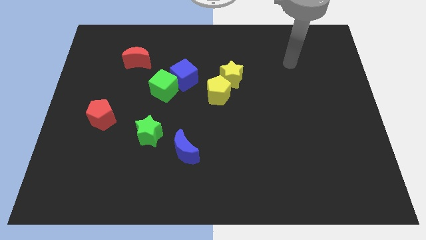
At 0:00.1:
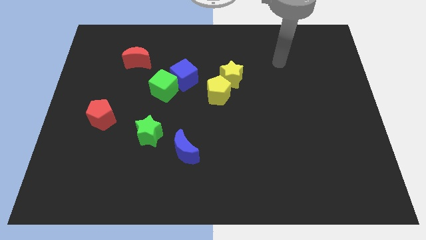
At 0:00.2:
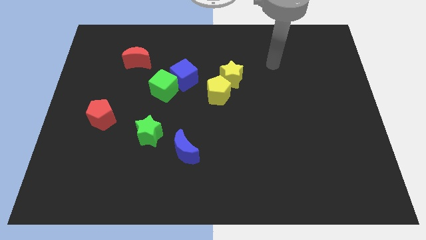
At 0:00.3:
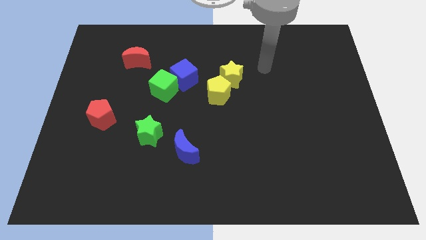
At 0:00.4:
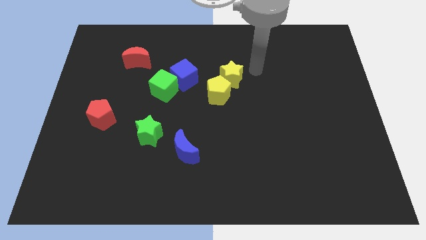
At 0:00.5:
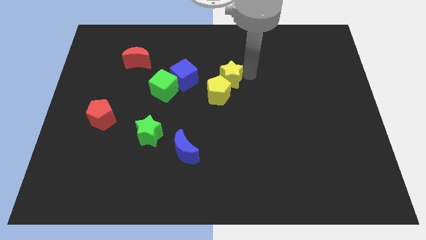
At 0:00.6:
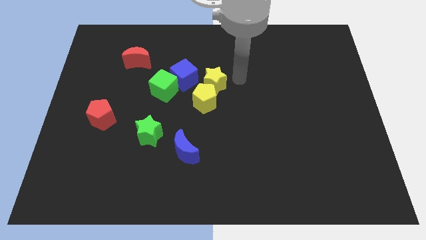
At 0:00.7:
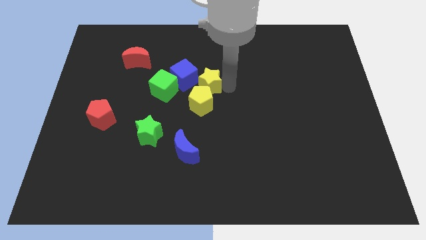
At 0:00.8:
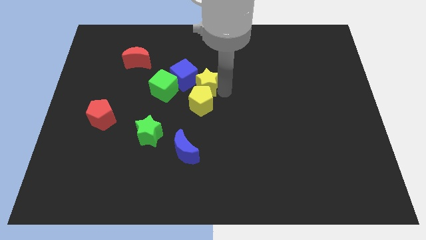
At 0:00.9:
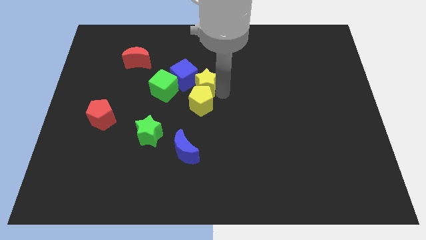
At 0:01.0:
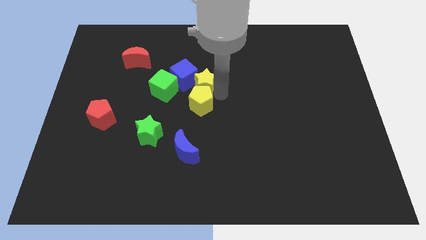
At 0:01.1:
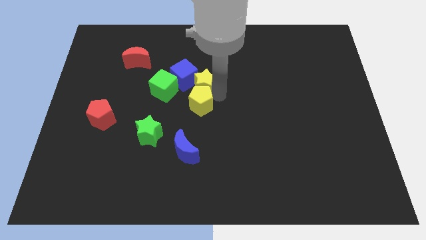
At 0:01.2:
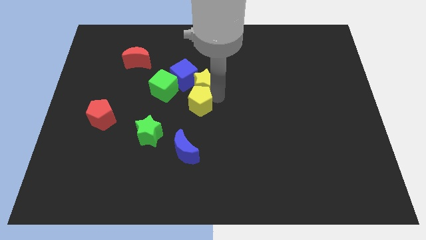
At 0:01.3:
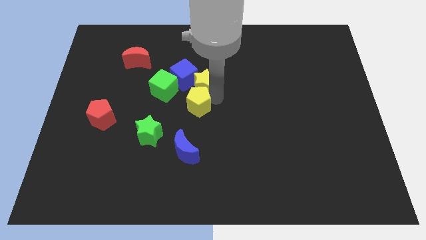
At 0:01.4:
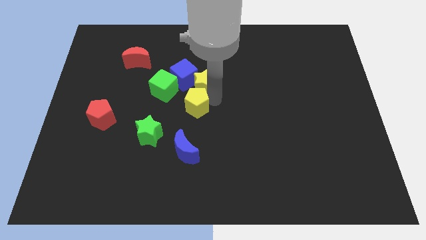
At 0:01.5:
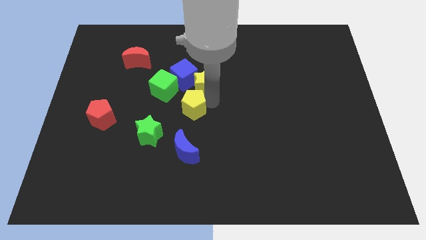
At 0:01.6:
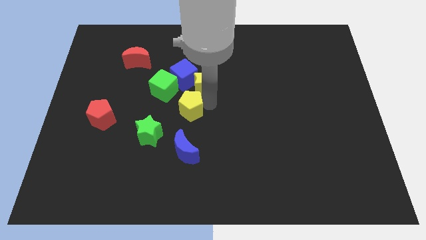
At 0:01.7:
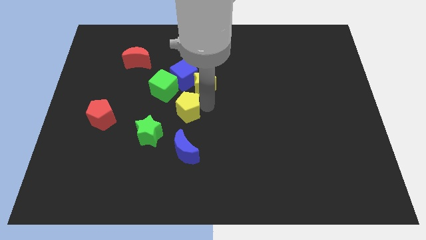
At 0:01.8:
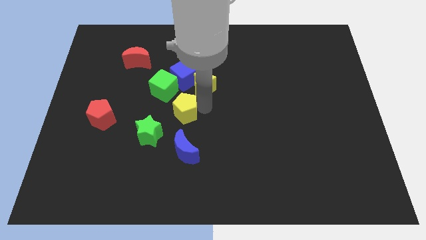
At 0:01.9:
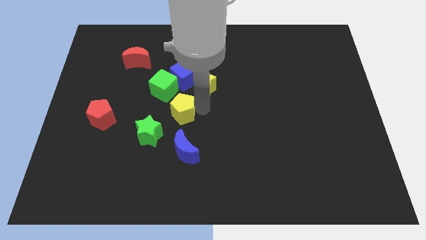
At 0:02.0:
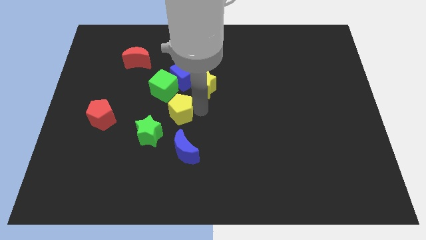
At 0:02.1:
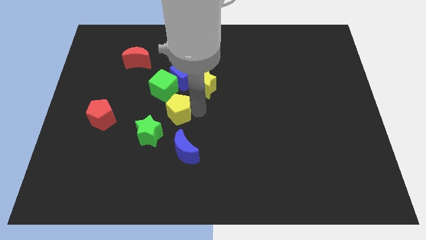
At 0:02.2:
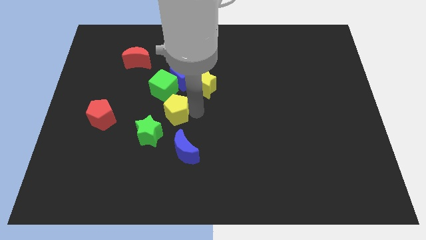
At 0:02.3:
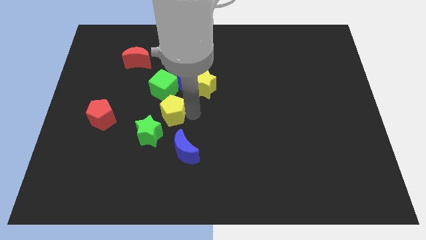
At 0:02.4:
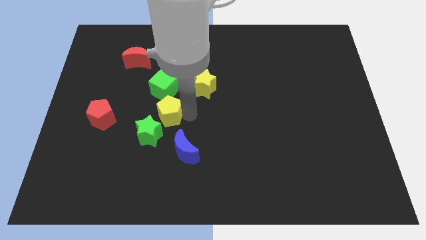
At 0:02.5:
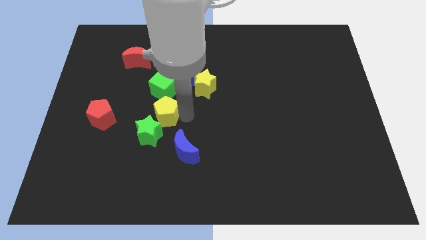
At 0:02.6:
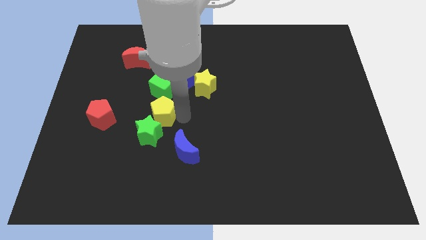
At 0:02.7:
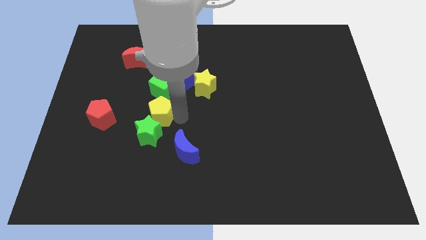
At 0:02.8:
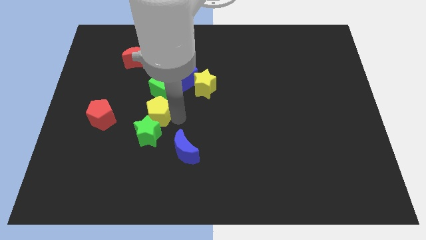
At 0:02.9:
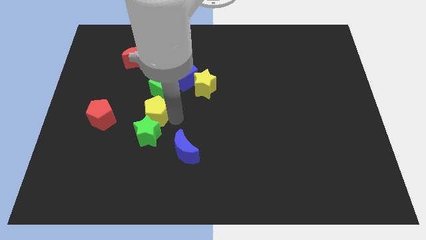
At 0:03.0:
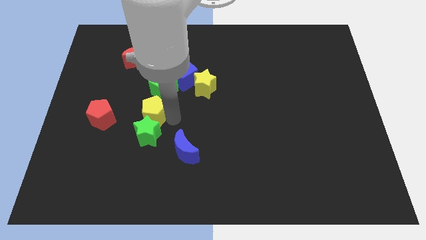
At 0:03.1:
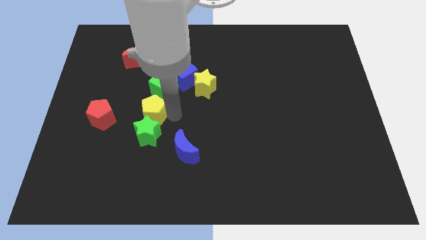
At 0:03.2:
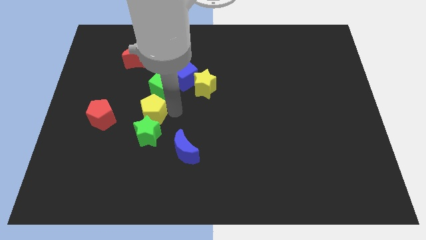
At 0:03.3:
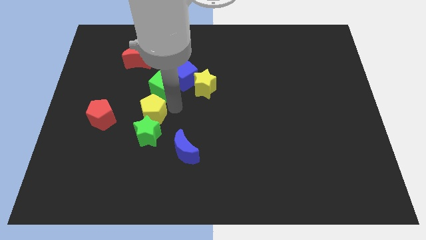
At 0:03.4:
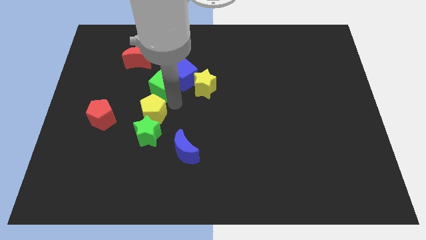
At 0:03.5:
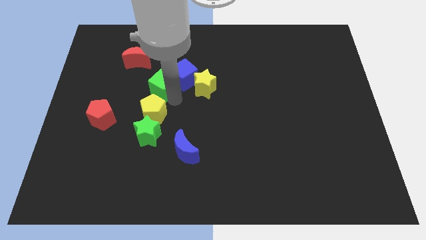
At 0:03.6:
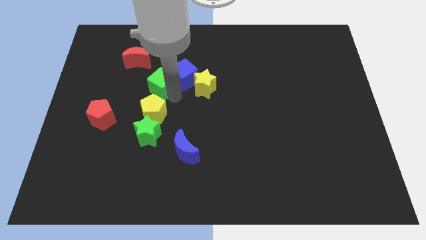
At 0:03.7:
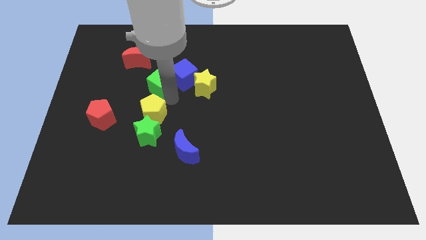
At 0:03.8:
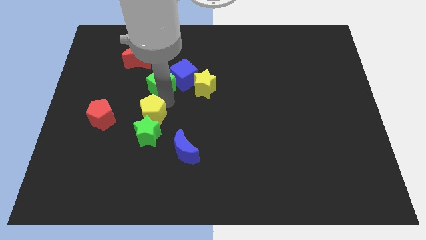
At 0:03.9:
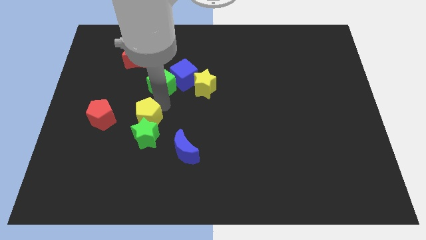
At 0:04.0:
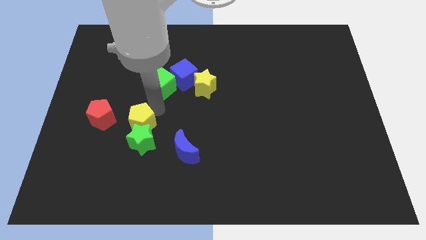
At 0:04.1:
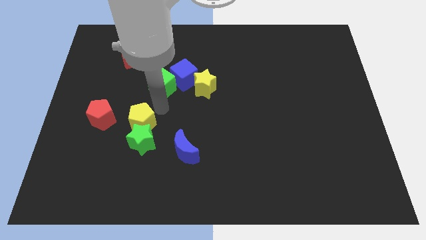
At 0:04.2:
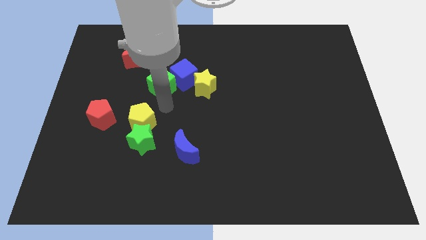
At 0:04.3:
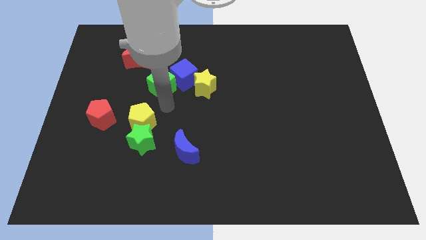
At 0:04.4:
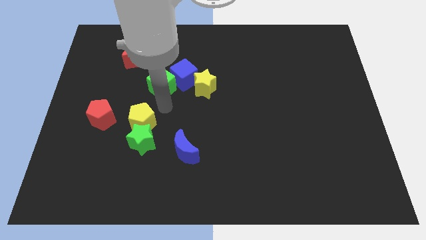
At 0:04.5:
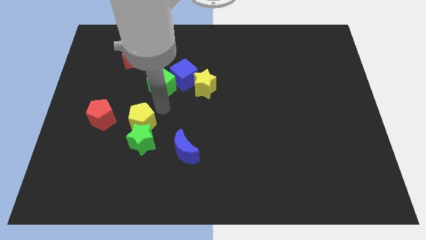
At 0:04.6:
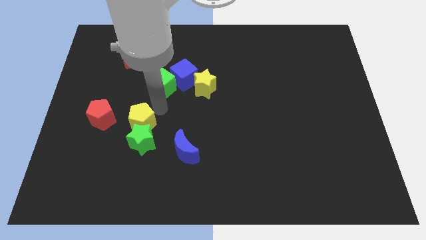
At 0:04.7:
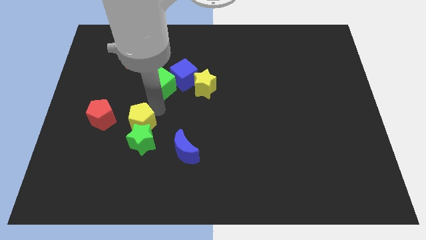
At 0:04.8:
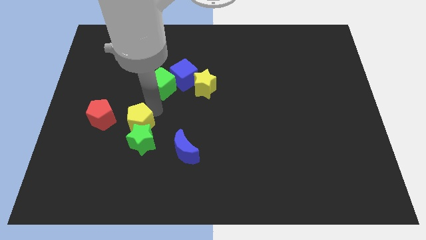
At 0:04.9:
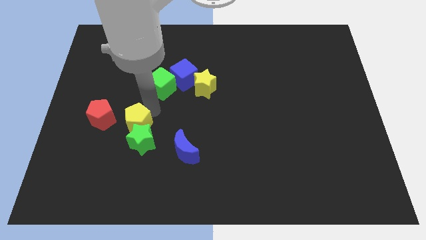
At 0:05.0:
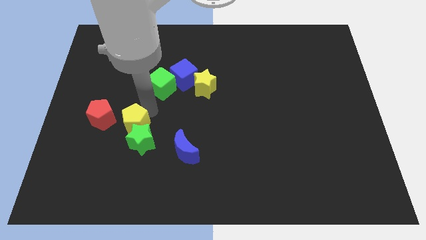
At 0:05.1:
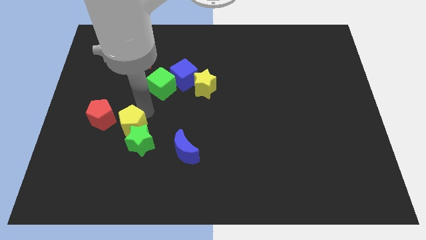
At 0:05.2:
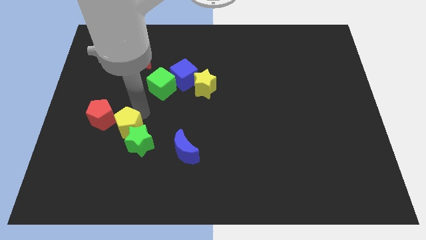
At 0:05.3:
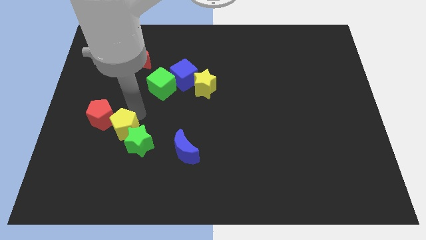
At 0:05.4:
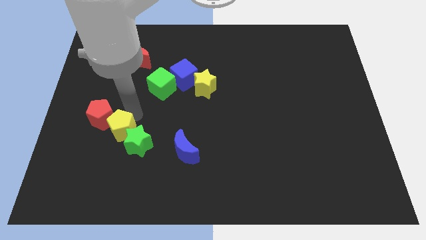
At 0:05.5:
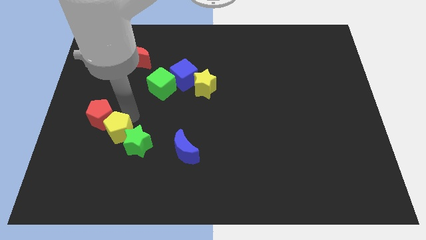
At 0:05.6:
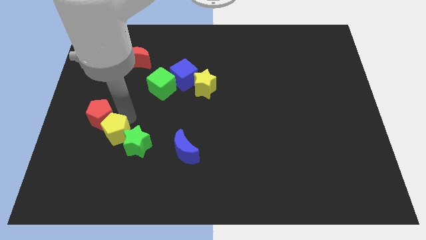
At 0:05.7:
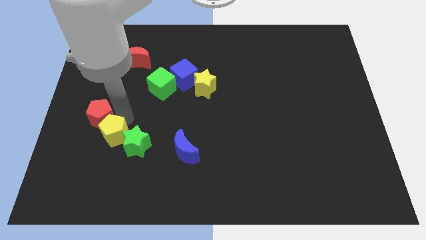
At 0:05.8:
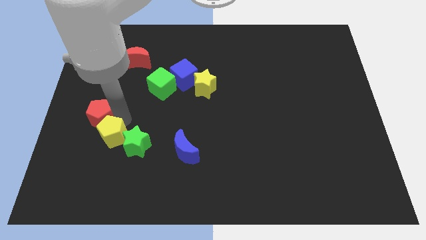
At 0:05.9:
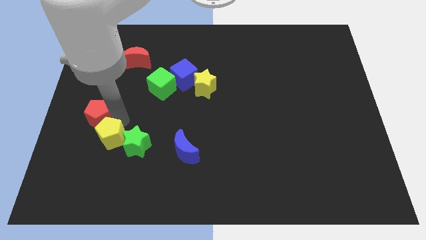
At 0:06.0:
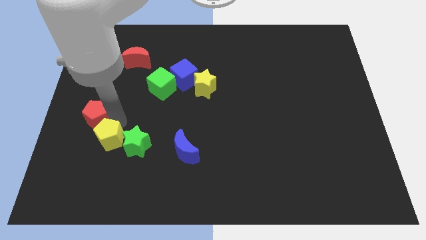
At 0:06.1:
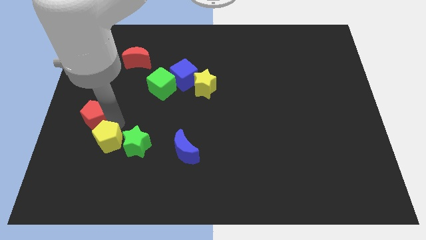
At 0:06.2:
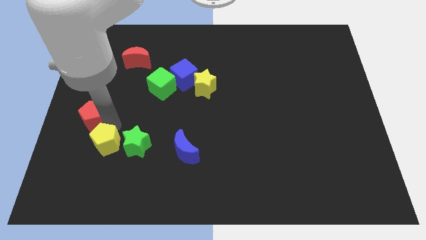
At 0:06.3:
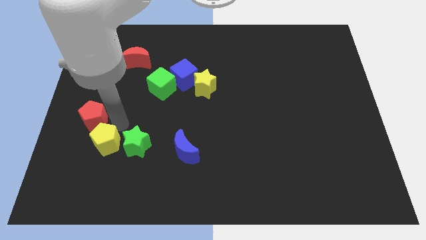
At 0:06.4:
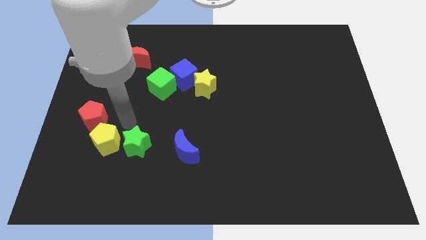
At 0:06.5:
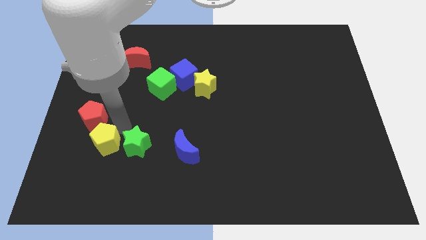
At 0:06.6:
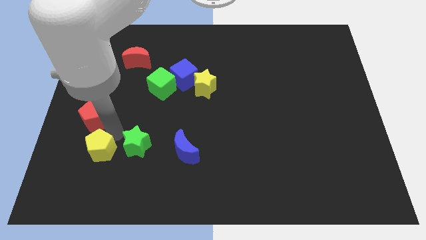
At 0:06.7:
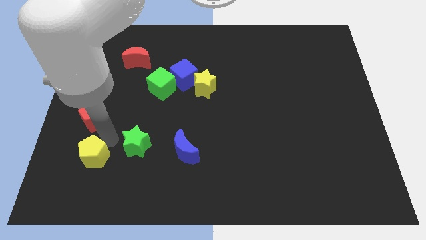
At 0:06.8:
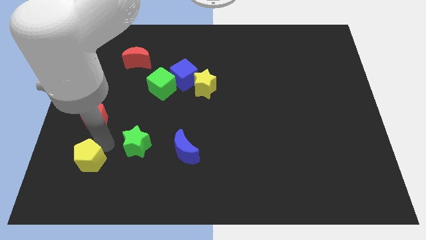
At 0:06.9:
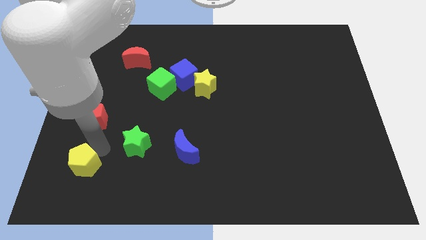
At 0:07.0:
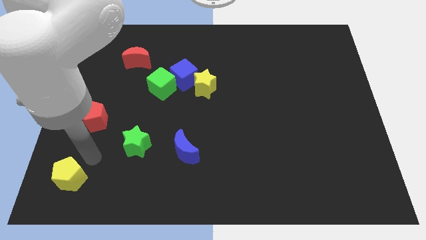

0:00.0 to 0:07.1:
push the yellow pentagon to the bottom left of the board
